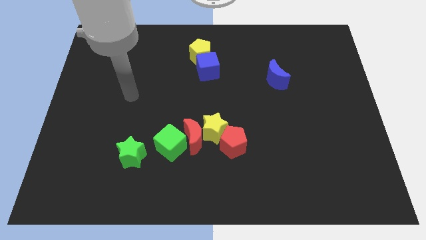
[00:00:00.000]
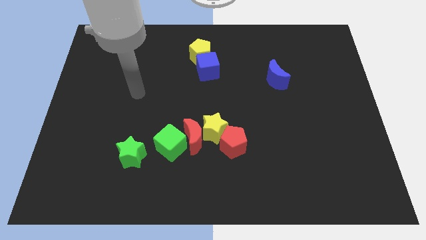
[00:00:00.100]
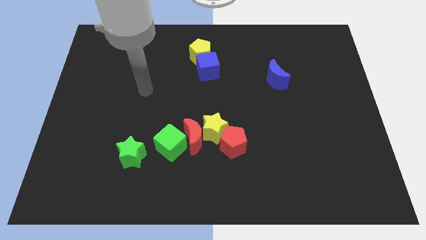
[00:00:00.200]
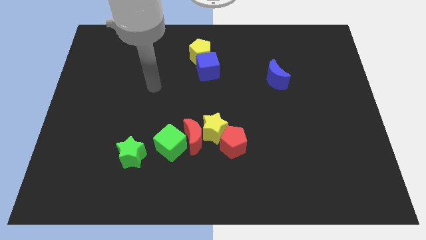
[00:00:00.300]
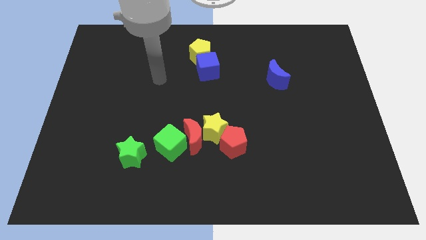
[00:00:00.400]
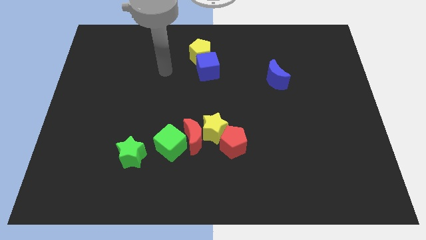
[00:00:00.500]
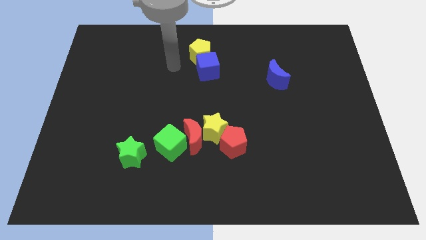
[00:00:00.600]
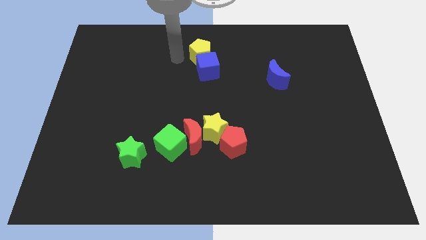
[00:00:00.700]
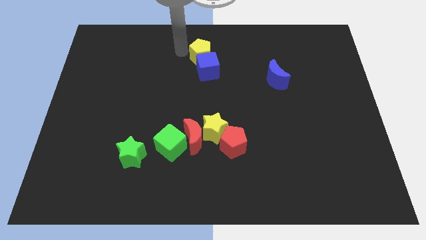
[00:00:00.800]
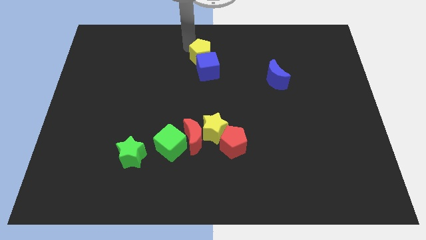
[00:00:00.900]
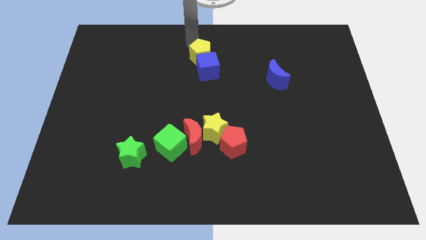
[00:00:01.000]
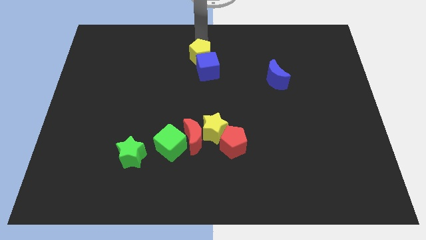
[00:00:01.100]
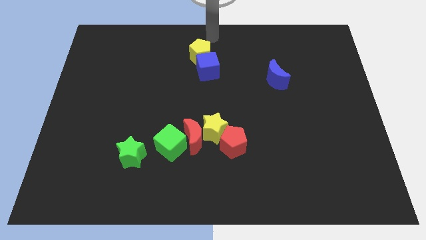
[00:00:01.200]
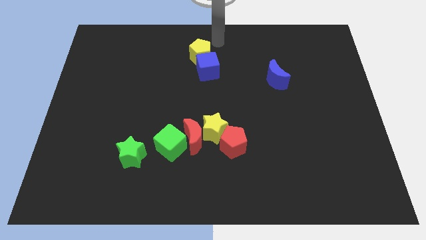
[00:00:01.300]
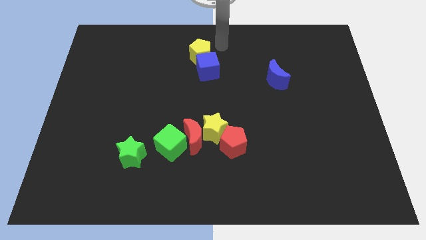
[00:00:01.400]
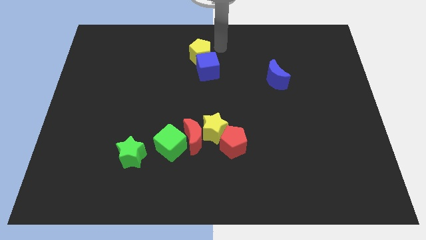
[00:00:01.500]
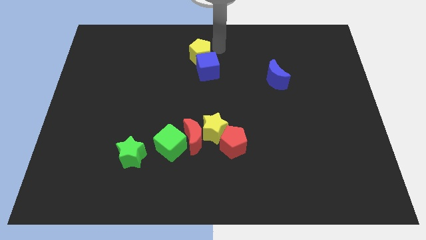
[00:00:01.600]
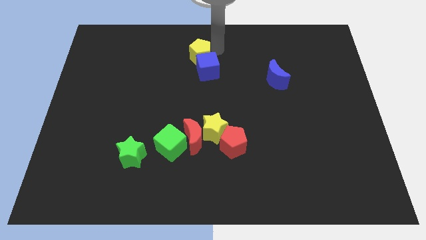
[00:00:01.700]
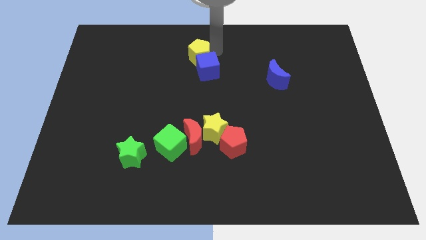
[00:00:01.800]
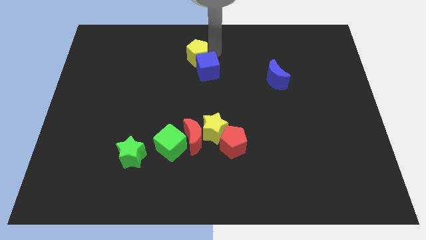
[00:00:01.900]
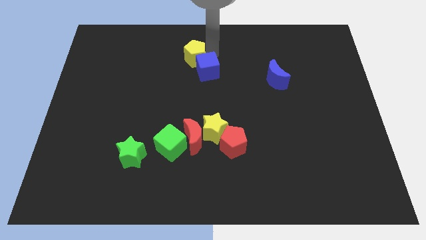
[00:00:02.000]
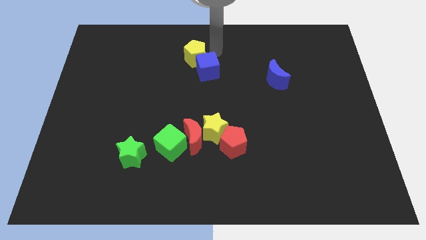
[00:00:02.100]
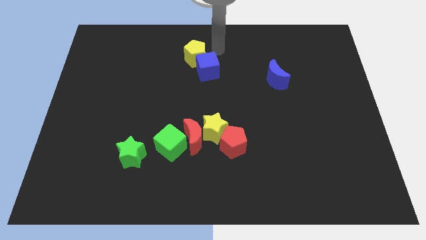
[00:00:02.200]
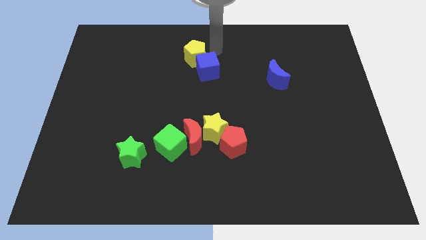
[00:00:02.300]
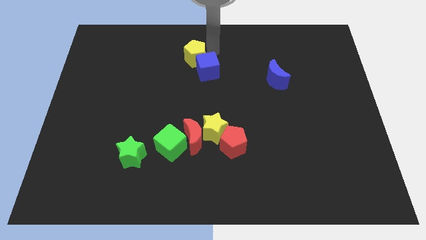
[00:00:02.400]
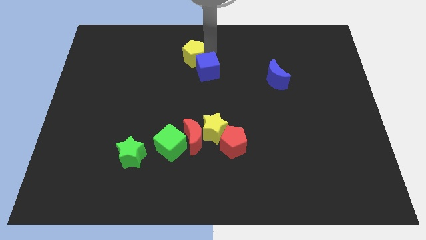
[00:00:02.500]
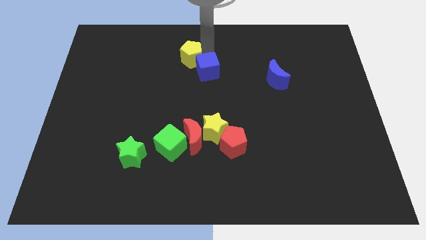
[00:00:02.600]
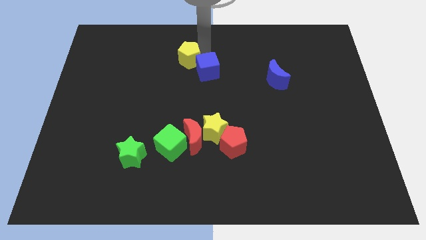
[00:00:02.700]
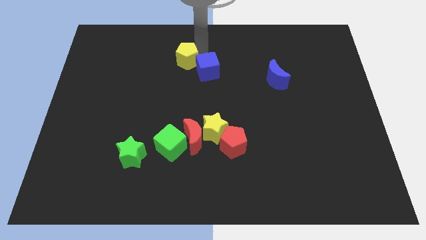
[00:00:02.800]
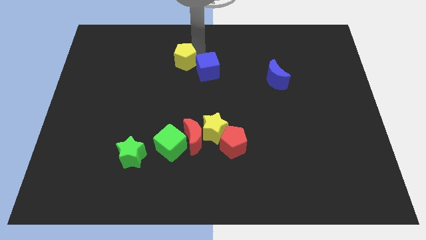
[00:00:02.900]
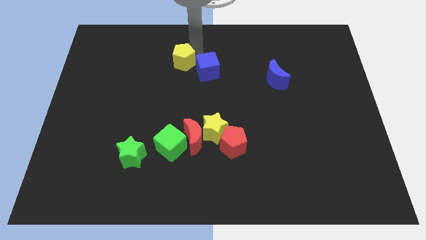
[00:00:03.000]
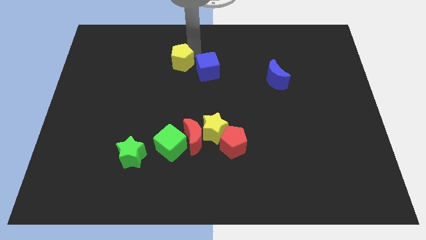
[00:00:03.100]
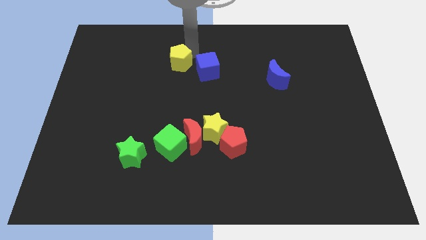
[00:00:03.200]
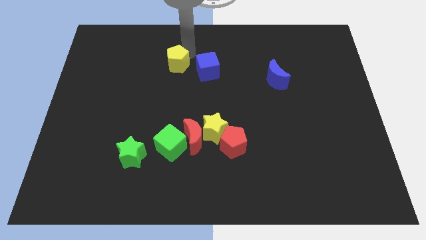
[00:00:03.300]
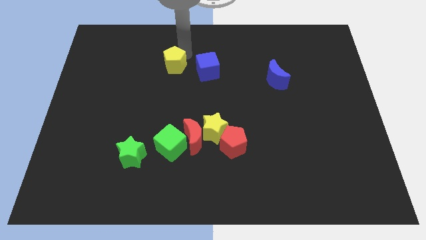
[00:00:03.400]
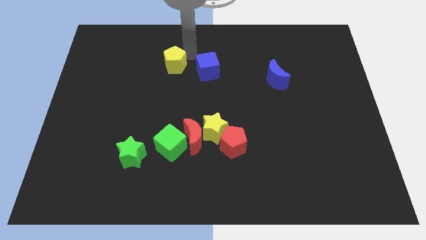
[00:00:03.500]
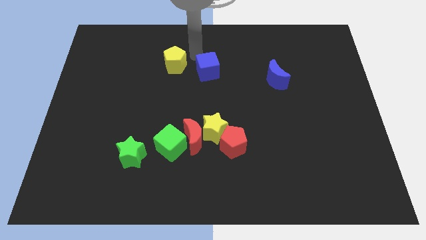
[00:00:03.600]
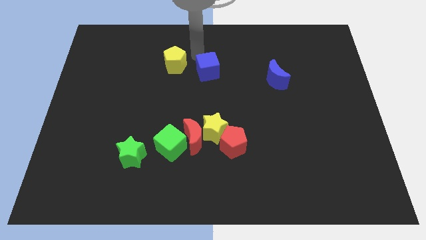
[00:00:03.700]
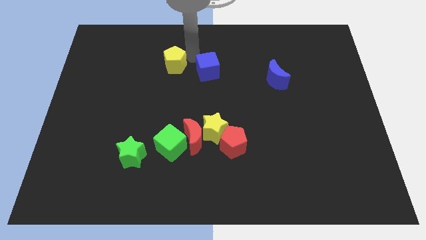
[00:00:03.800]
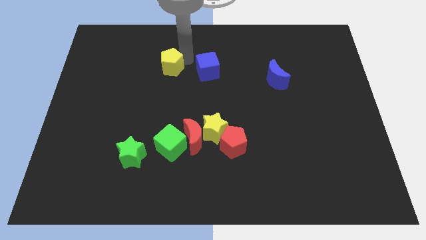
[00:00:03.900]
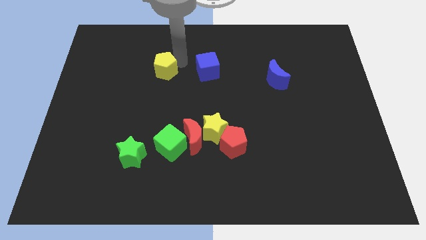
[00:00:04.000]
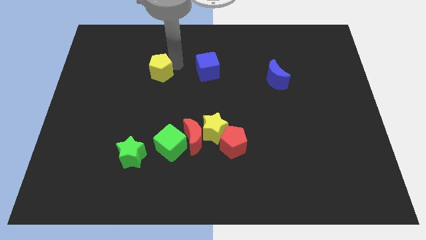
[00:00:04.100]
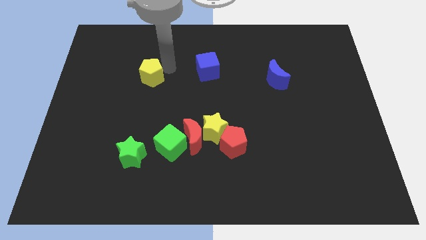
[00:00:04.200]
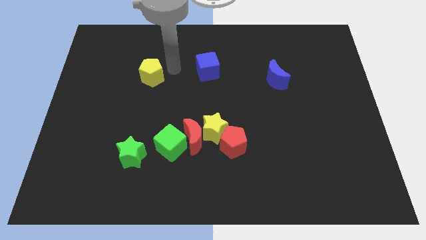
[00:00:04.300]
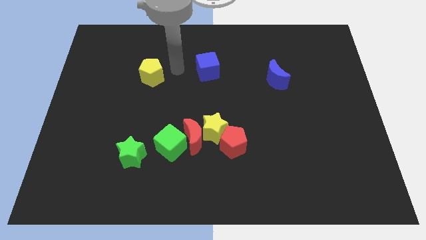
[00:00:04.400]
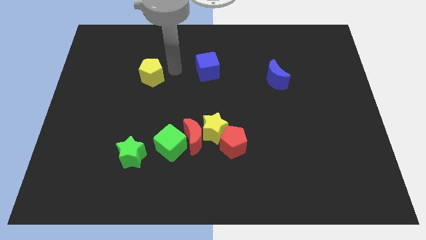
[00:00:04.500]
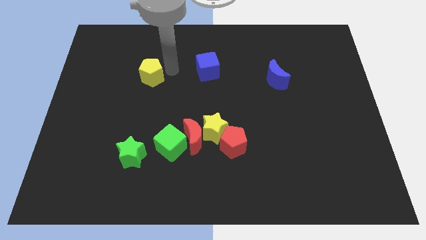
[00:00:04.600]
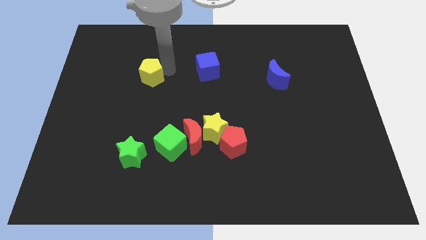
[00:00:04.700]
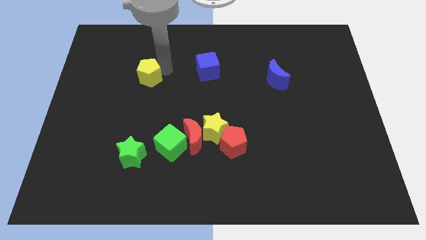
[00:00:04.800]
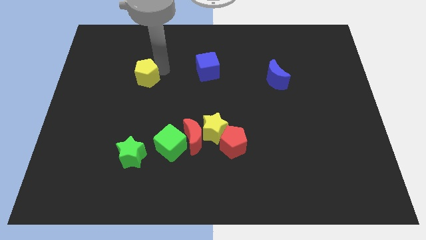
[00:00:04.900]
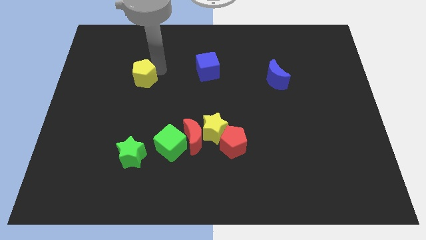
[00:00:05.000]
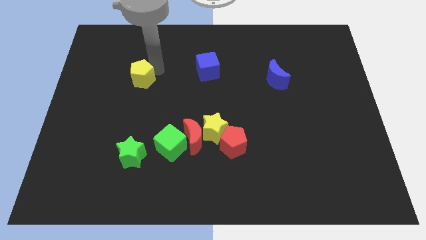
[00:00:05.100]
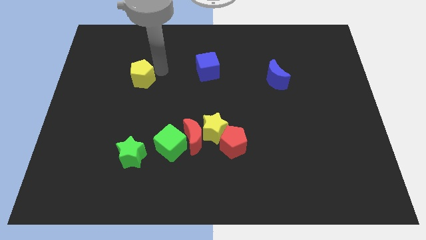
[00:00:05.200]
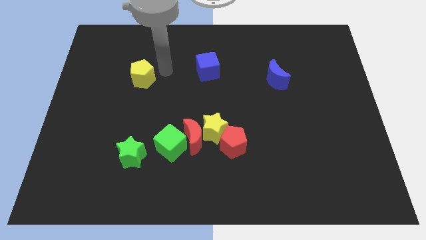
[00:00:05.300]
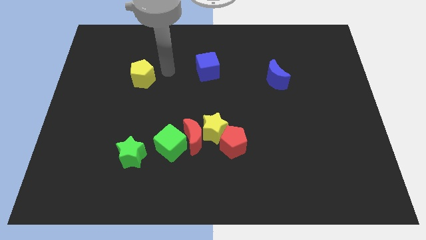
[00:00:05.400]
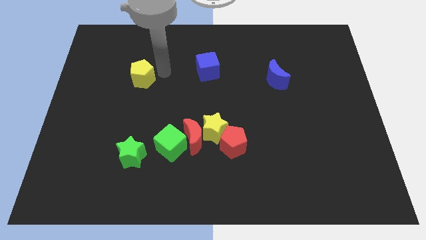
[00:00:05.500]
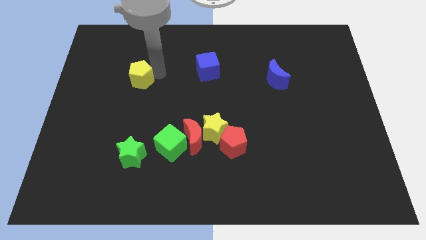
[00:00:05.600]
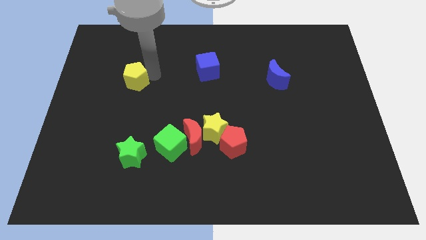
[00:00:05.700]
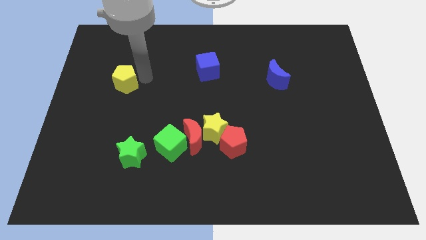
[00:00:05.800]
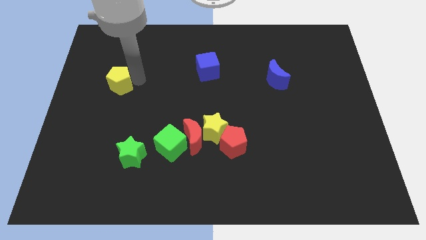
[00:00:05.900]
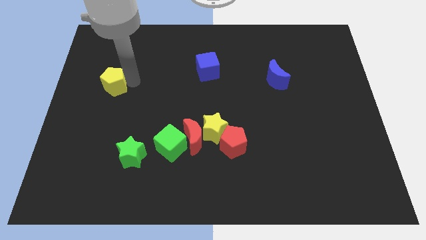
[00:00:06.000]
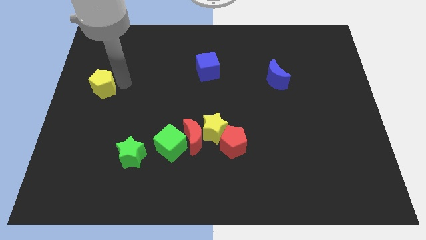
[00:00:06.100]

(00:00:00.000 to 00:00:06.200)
move the yellow pentagon to the center left

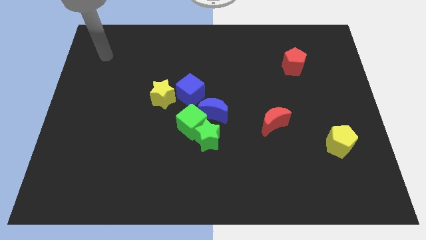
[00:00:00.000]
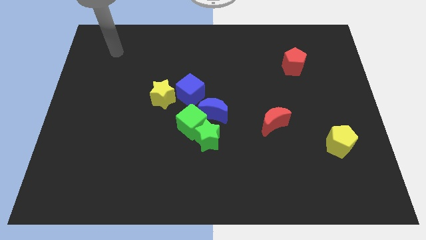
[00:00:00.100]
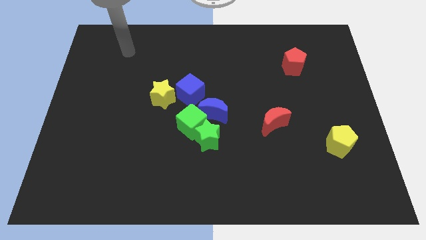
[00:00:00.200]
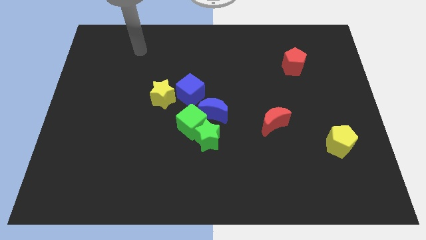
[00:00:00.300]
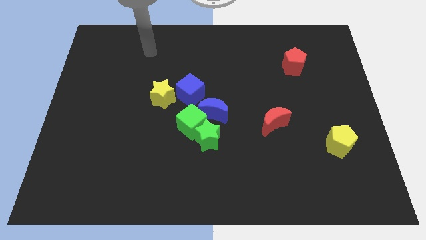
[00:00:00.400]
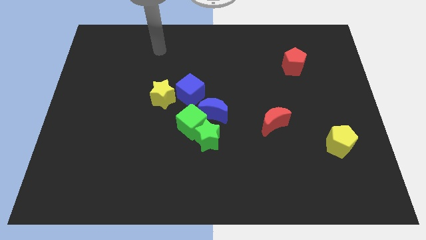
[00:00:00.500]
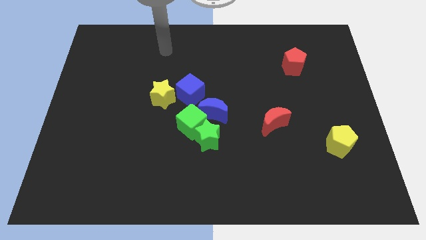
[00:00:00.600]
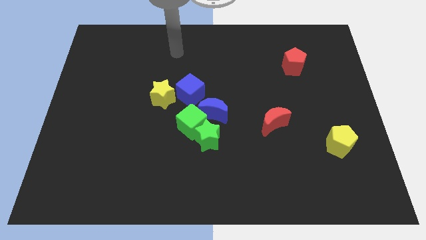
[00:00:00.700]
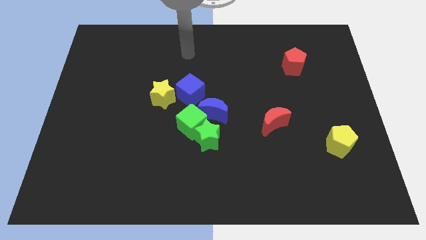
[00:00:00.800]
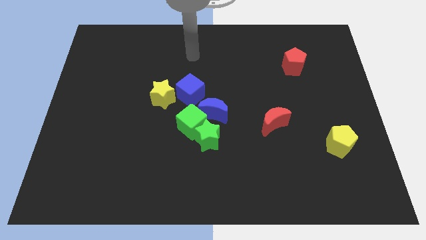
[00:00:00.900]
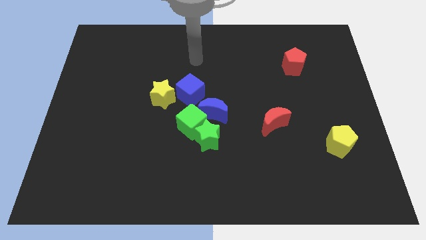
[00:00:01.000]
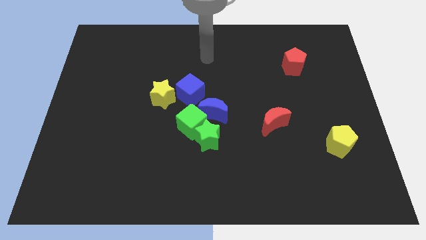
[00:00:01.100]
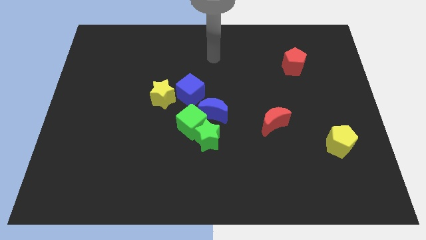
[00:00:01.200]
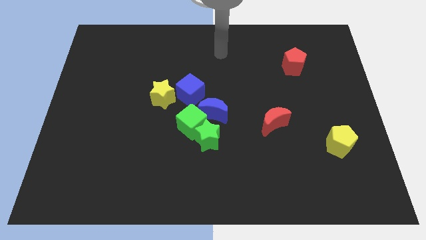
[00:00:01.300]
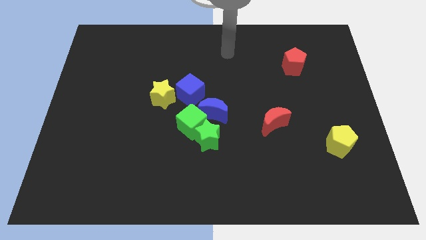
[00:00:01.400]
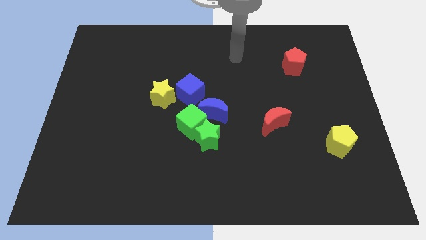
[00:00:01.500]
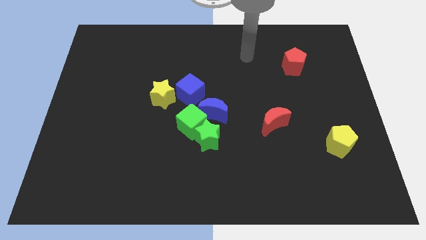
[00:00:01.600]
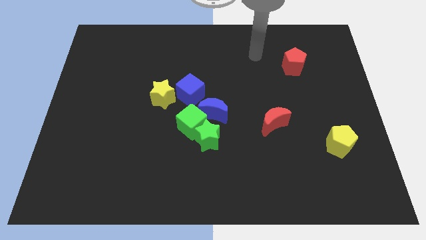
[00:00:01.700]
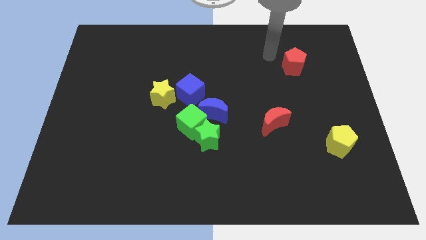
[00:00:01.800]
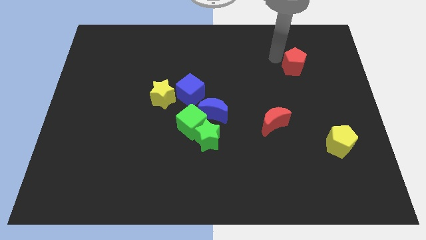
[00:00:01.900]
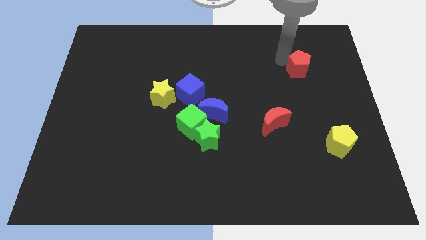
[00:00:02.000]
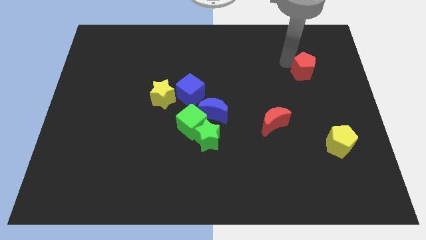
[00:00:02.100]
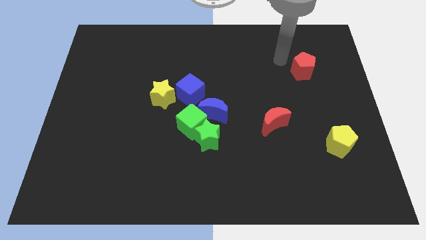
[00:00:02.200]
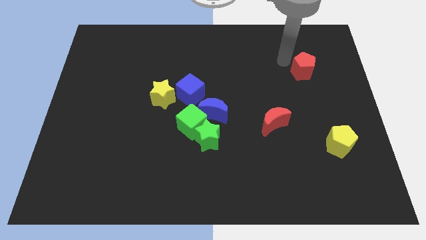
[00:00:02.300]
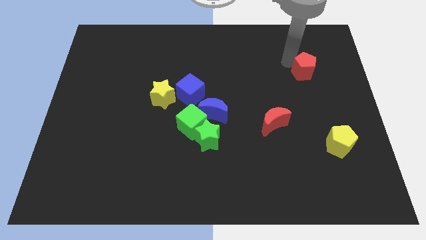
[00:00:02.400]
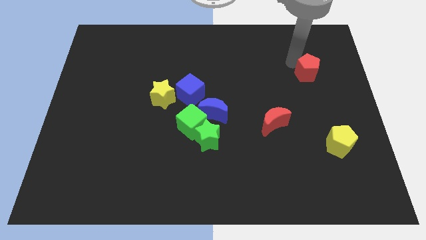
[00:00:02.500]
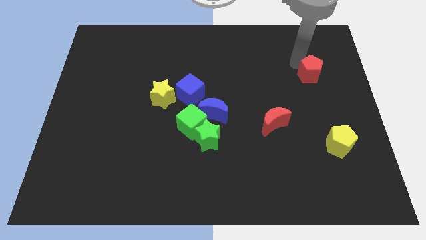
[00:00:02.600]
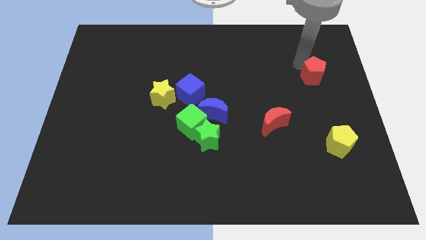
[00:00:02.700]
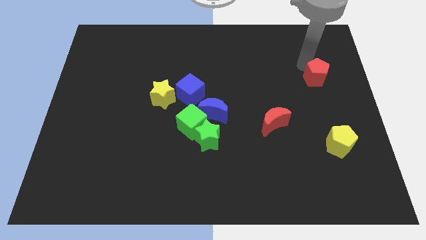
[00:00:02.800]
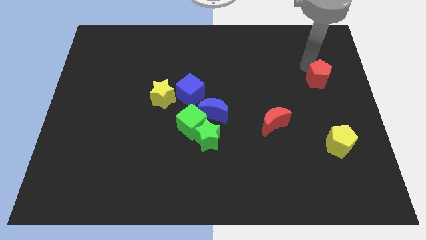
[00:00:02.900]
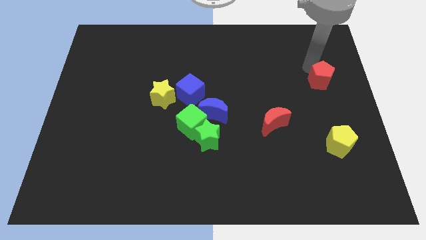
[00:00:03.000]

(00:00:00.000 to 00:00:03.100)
put the red pentagon to the right side
